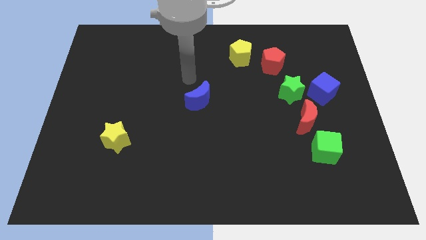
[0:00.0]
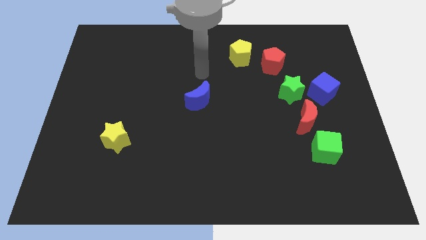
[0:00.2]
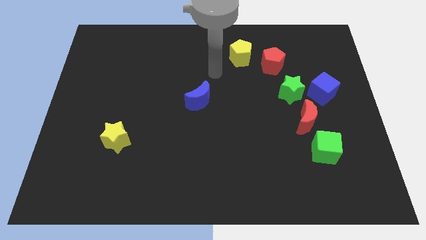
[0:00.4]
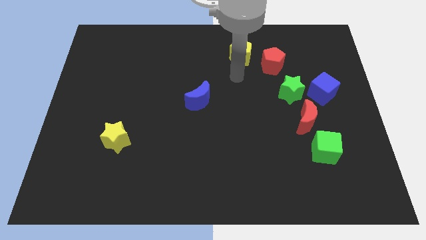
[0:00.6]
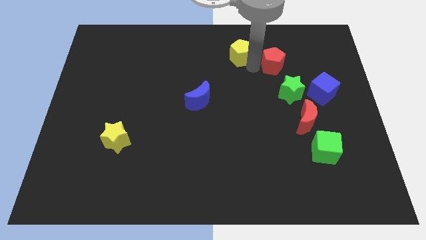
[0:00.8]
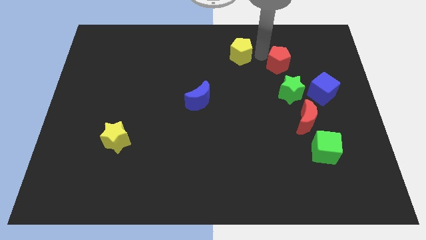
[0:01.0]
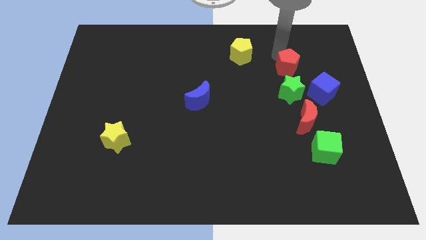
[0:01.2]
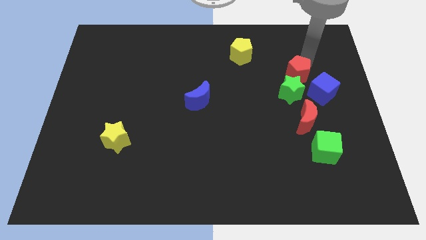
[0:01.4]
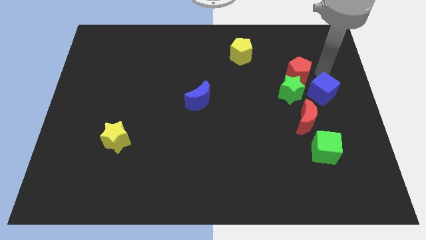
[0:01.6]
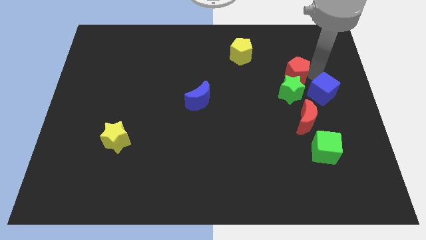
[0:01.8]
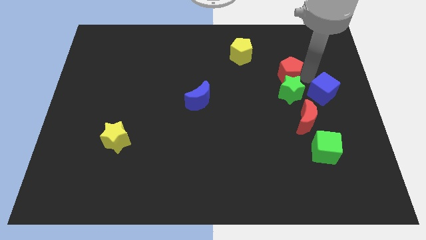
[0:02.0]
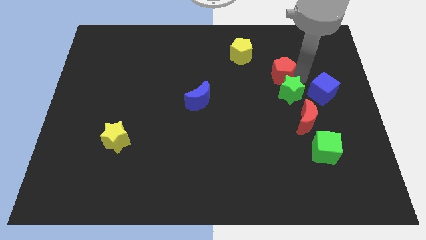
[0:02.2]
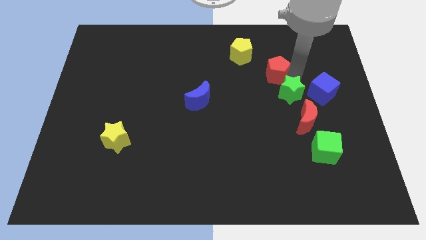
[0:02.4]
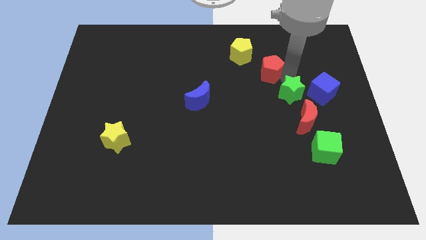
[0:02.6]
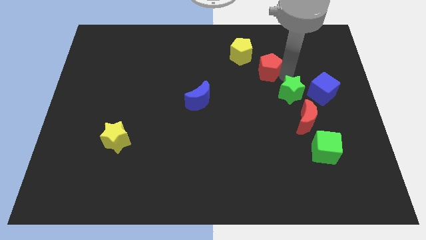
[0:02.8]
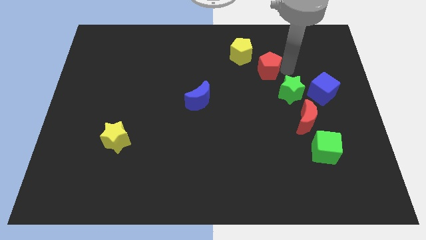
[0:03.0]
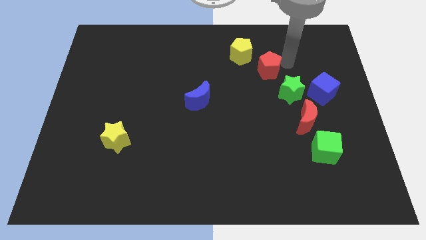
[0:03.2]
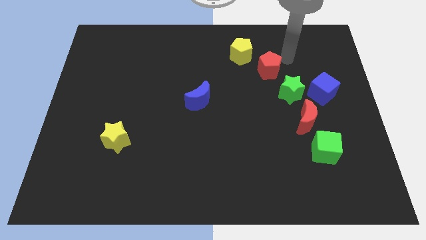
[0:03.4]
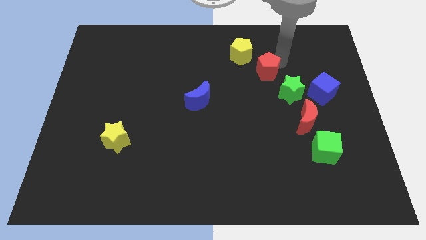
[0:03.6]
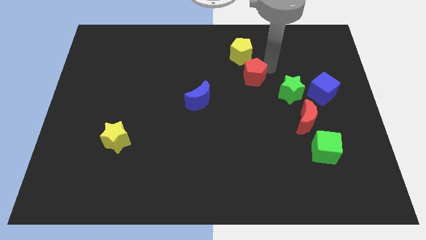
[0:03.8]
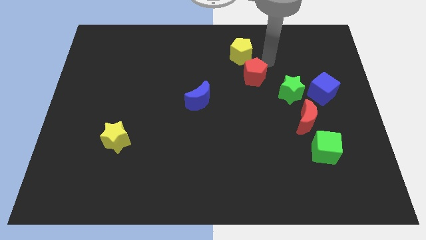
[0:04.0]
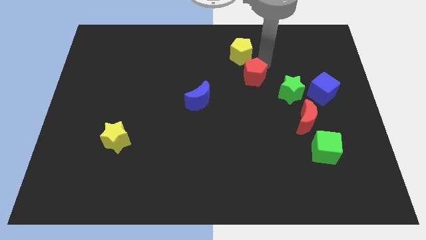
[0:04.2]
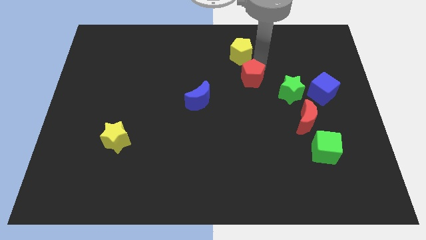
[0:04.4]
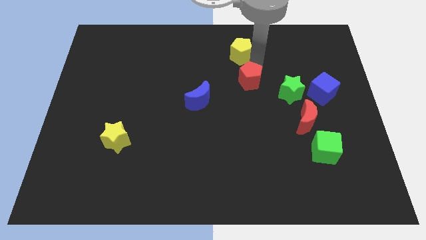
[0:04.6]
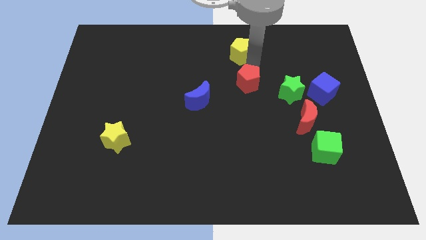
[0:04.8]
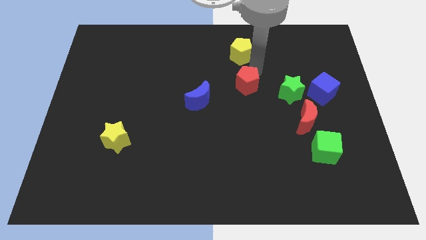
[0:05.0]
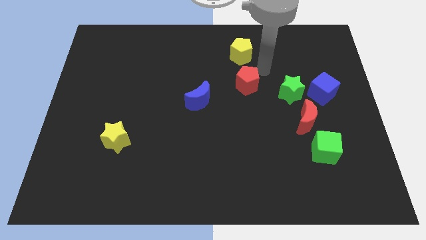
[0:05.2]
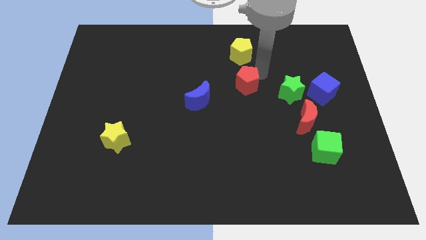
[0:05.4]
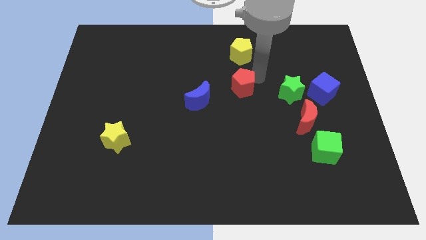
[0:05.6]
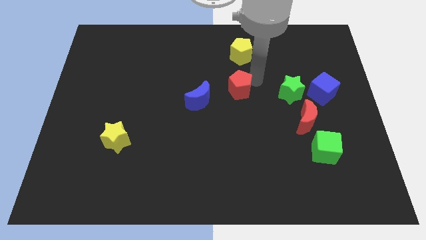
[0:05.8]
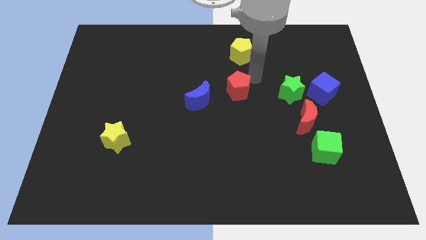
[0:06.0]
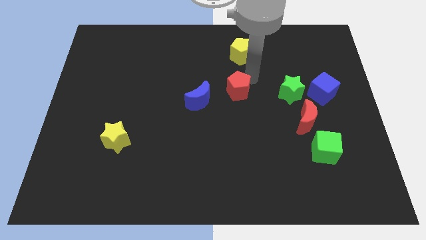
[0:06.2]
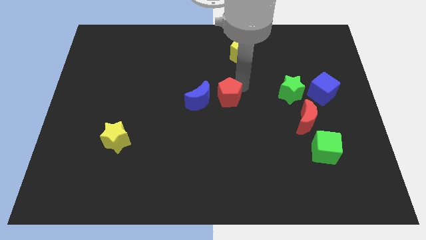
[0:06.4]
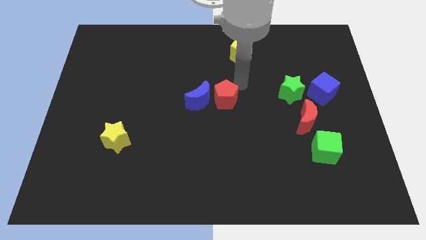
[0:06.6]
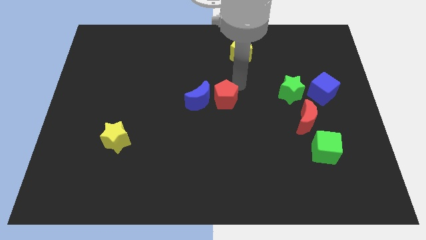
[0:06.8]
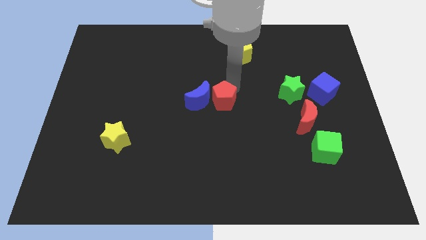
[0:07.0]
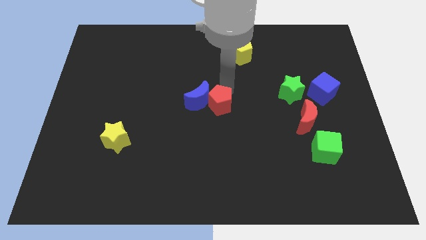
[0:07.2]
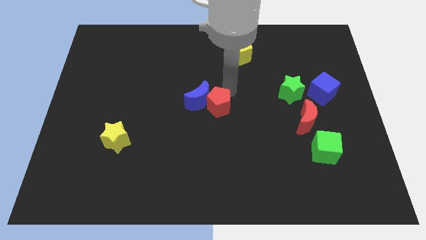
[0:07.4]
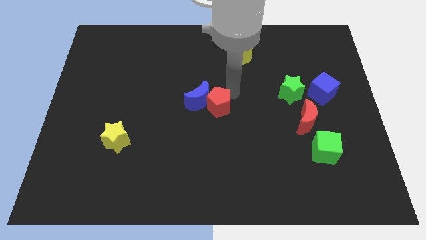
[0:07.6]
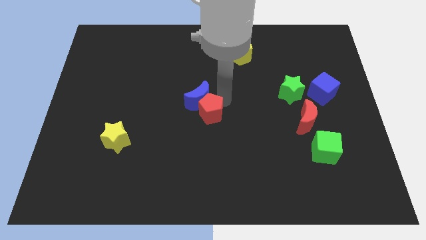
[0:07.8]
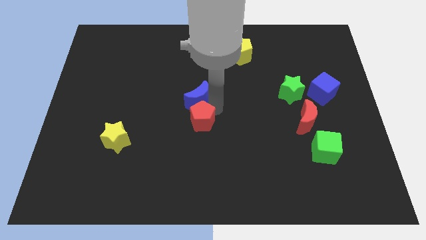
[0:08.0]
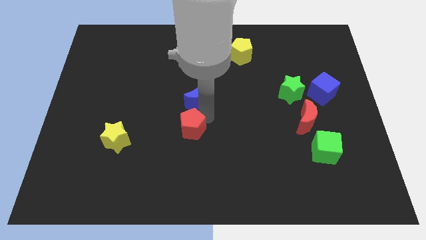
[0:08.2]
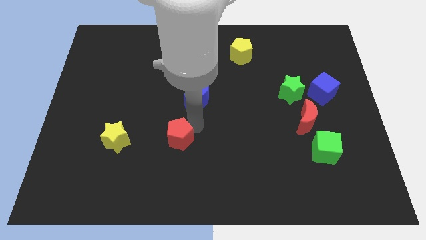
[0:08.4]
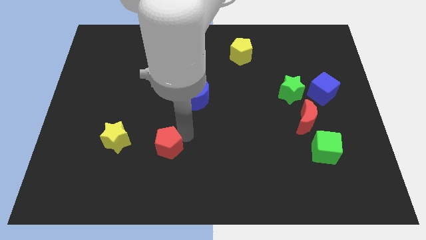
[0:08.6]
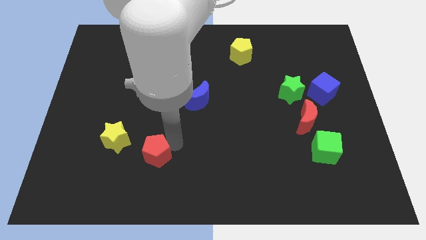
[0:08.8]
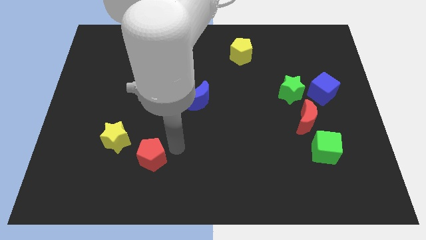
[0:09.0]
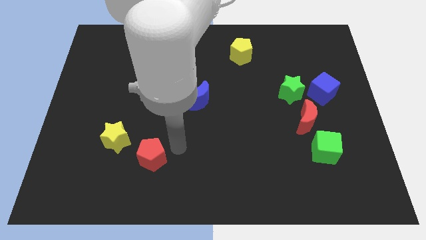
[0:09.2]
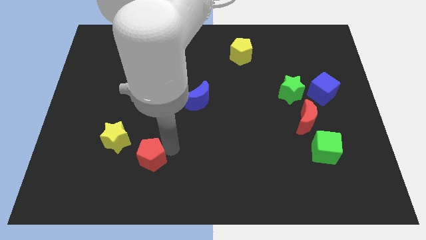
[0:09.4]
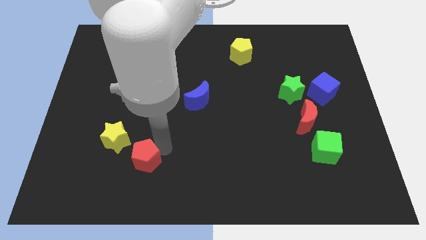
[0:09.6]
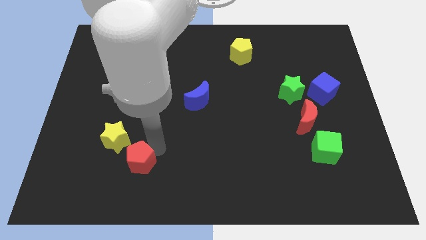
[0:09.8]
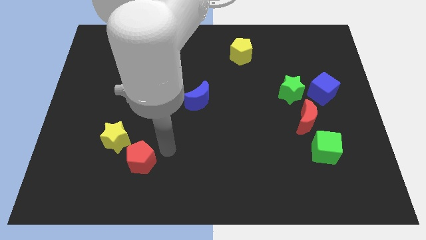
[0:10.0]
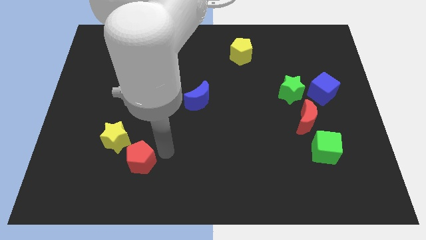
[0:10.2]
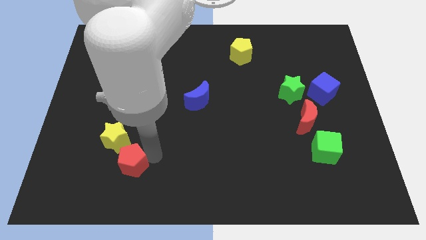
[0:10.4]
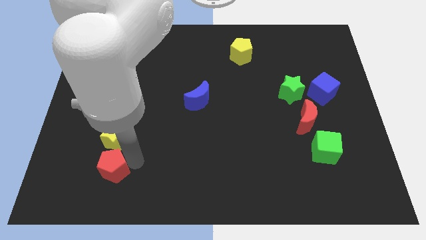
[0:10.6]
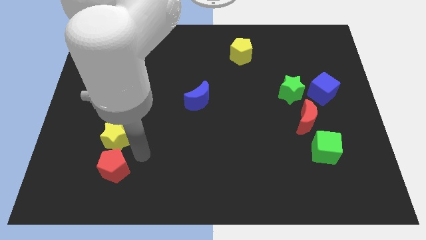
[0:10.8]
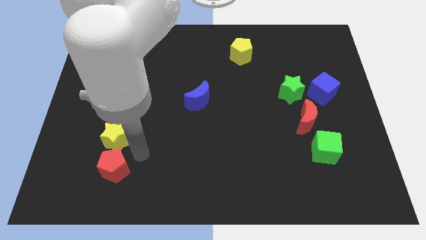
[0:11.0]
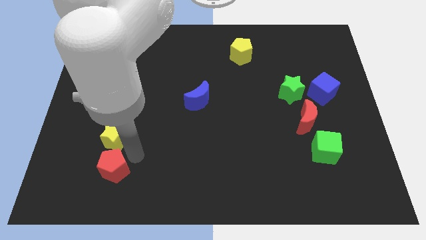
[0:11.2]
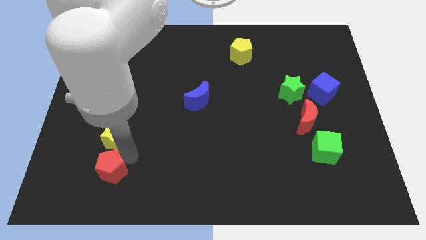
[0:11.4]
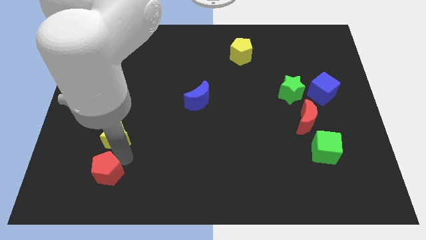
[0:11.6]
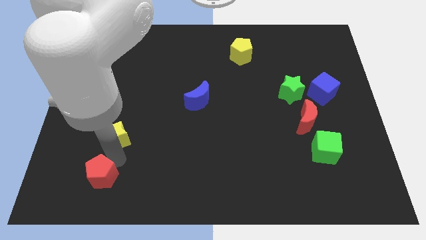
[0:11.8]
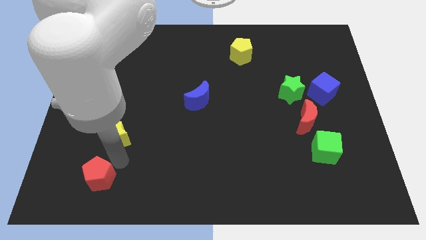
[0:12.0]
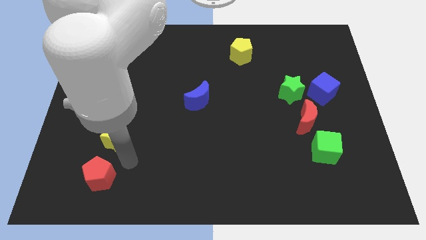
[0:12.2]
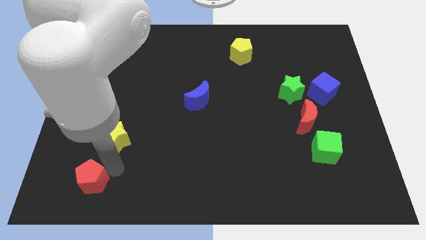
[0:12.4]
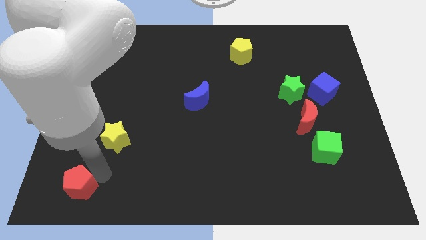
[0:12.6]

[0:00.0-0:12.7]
slide the red pentagon to the bottom left corner

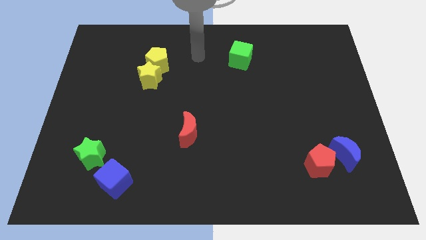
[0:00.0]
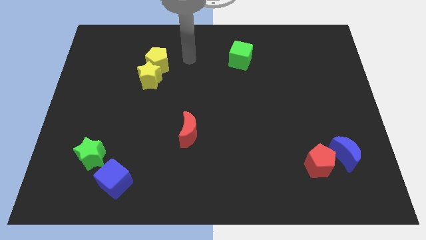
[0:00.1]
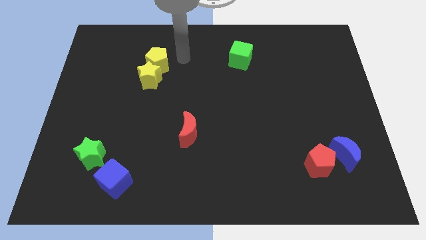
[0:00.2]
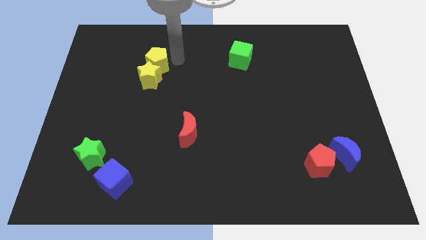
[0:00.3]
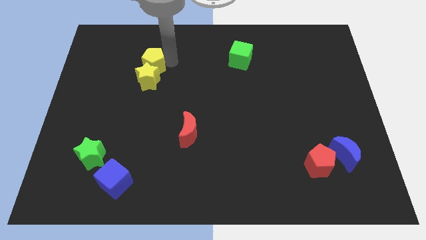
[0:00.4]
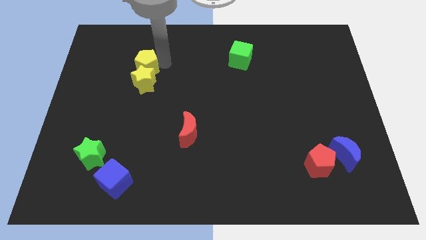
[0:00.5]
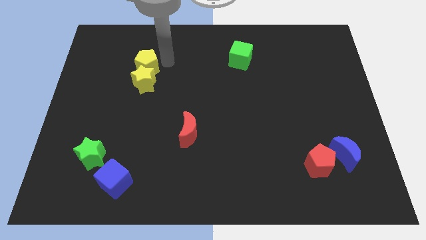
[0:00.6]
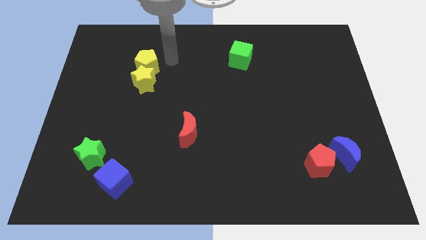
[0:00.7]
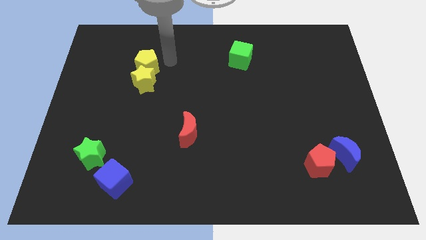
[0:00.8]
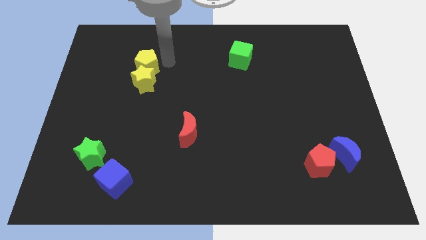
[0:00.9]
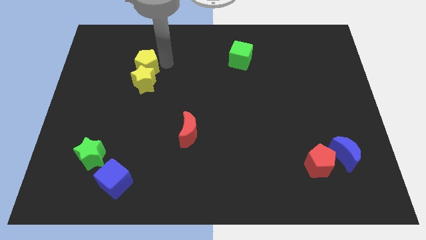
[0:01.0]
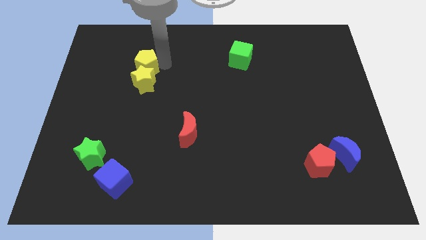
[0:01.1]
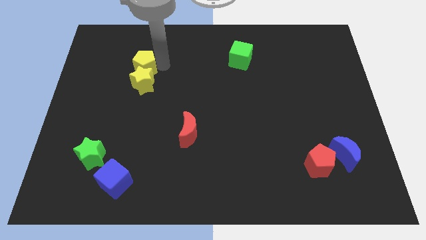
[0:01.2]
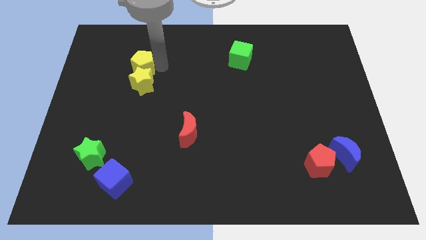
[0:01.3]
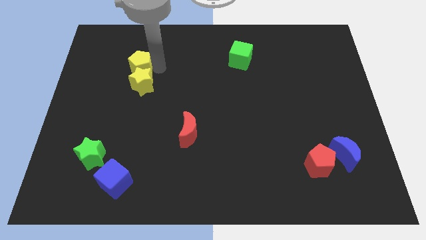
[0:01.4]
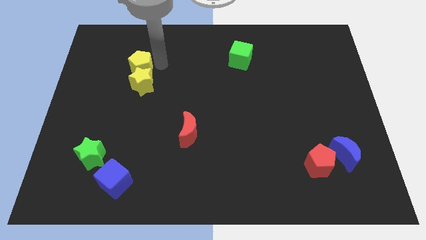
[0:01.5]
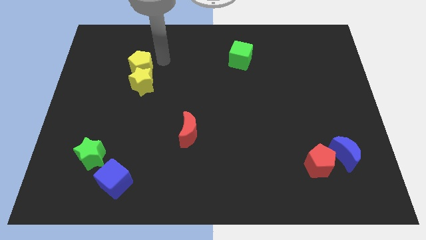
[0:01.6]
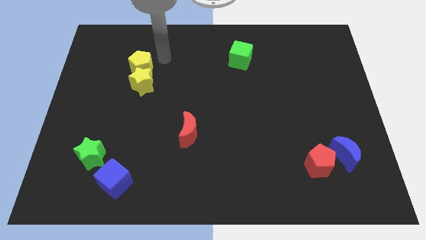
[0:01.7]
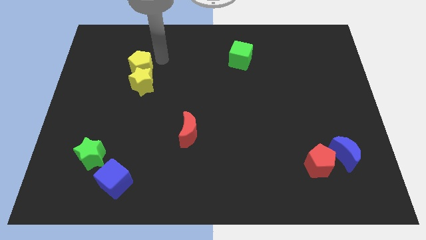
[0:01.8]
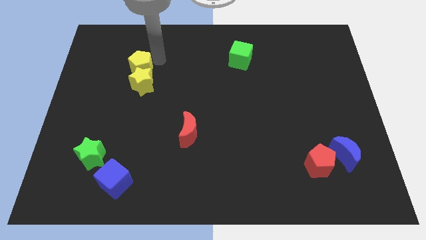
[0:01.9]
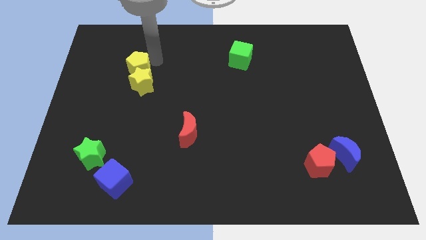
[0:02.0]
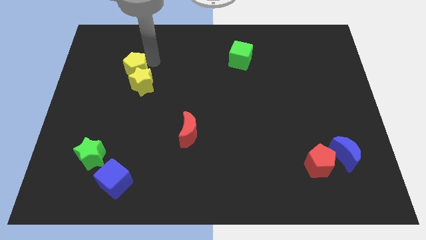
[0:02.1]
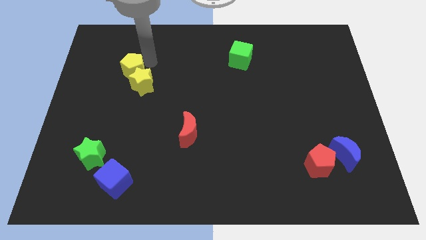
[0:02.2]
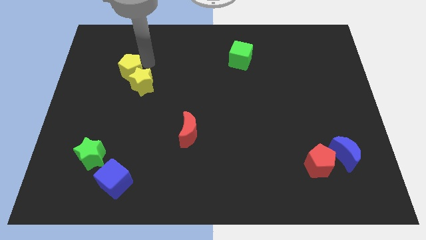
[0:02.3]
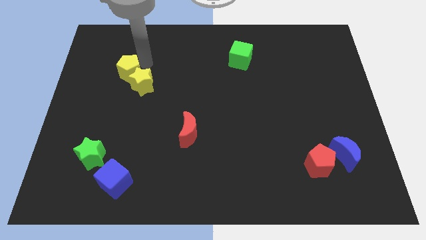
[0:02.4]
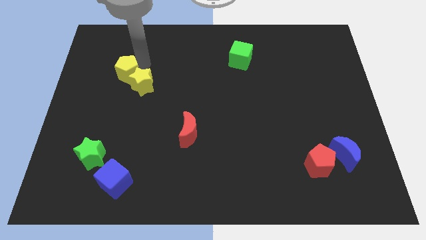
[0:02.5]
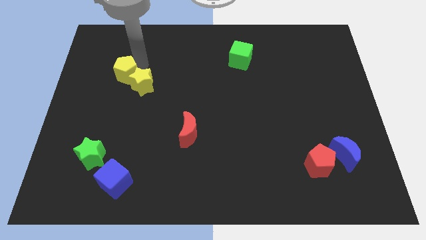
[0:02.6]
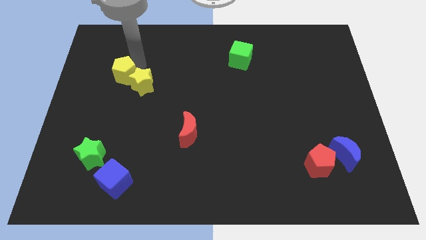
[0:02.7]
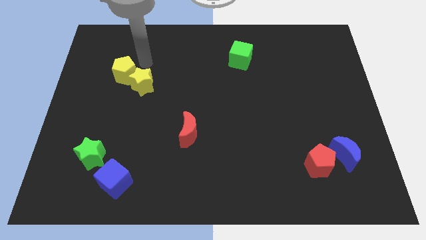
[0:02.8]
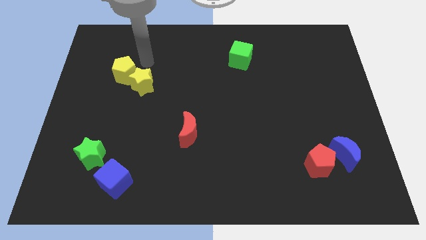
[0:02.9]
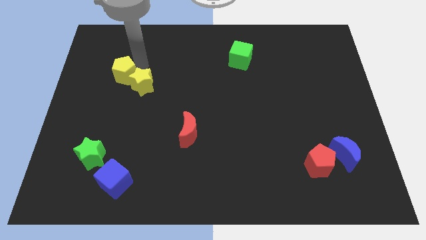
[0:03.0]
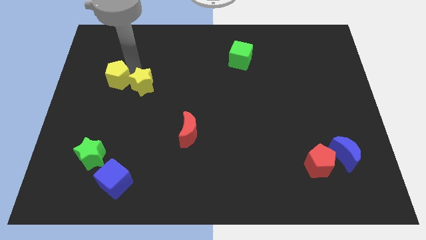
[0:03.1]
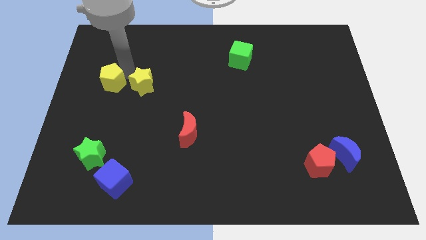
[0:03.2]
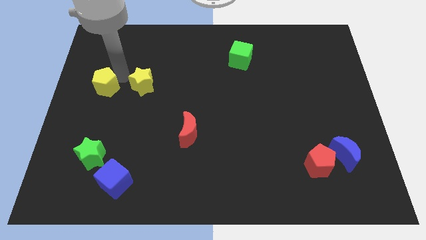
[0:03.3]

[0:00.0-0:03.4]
slide the yellow pentagon to the left side of the board
